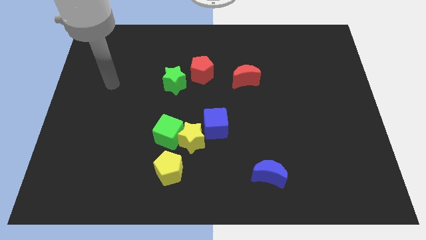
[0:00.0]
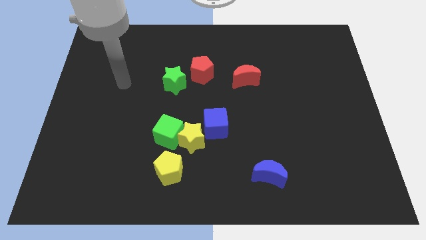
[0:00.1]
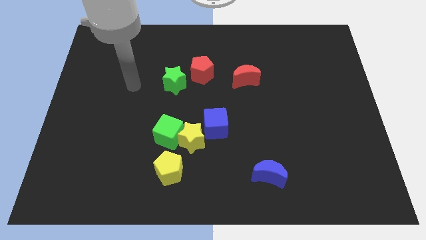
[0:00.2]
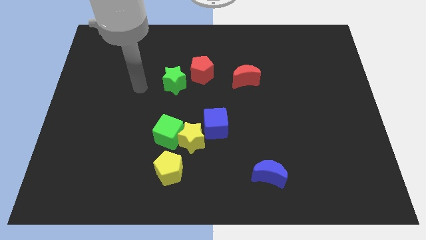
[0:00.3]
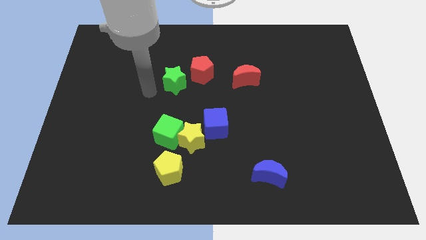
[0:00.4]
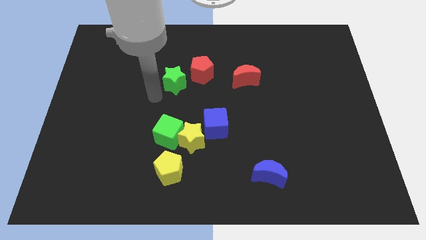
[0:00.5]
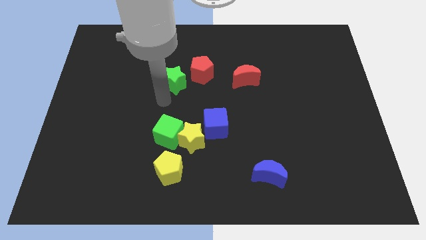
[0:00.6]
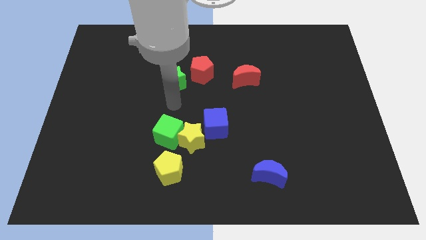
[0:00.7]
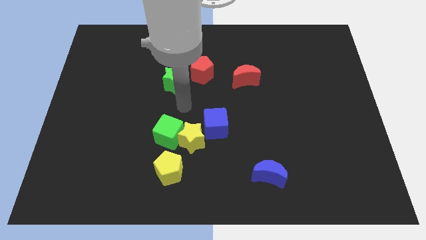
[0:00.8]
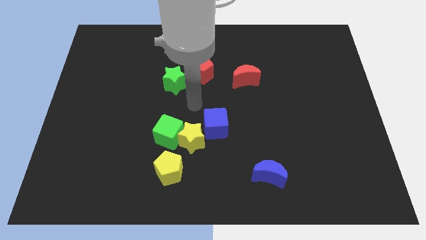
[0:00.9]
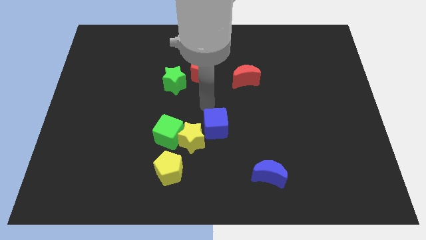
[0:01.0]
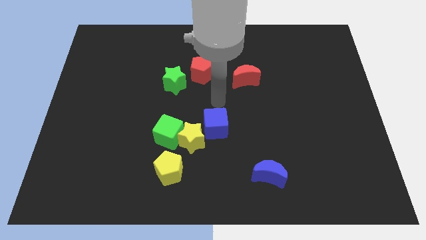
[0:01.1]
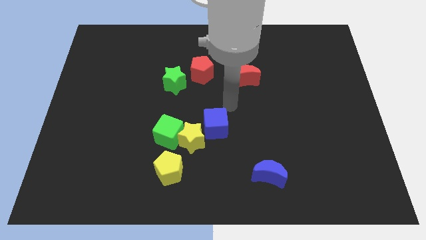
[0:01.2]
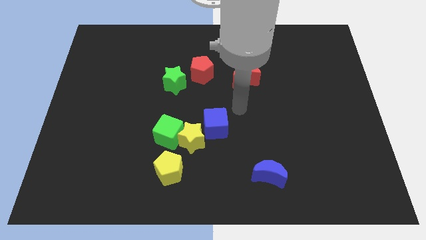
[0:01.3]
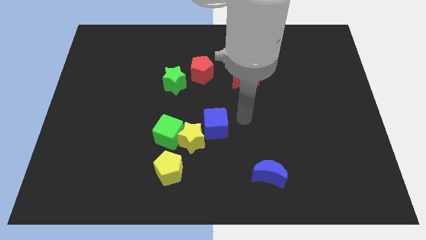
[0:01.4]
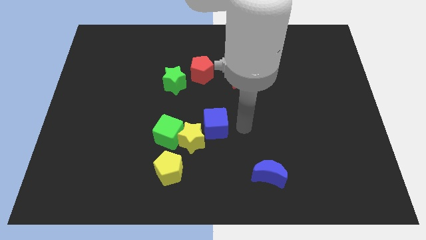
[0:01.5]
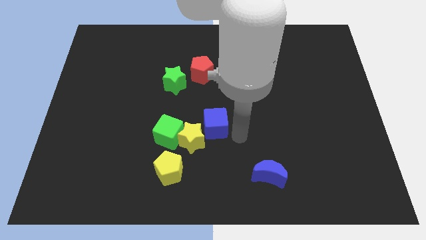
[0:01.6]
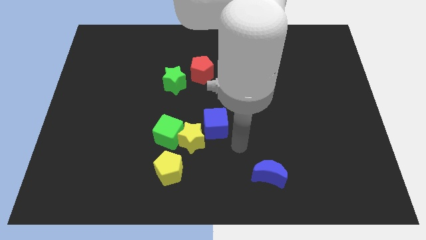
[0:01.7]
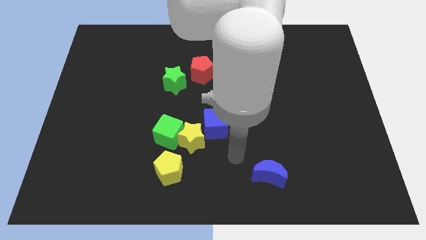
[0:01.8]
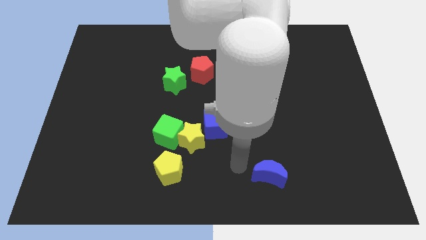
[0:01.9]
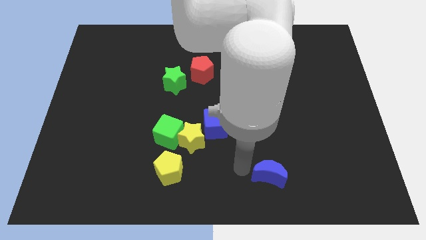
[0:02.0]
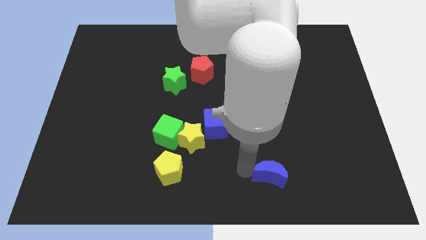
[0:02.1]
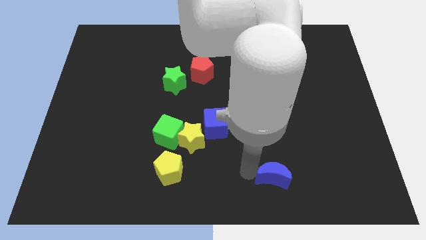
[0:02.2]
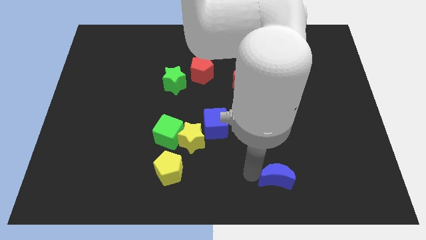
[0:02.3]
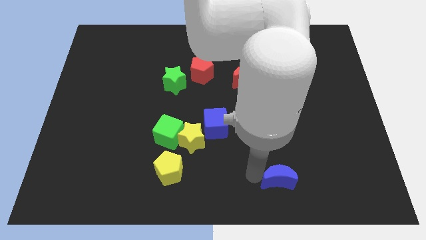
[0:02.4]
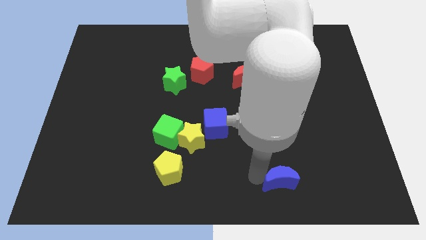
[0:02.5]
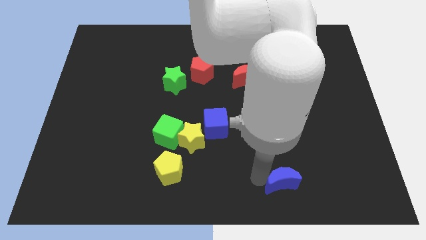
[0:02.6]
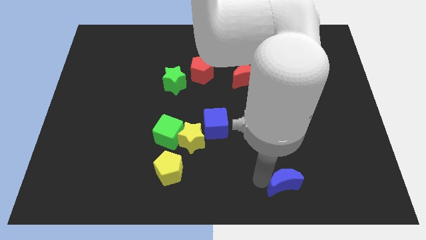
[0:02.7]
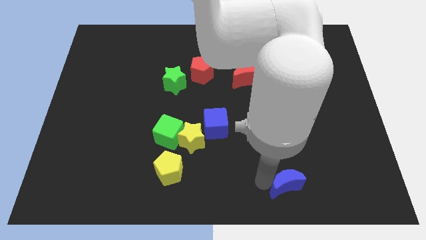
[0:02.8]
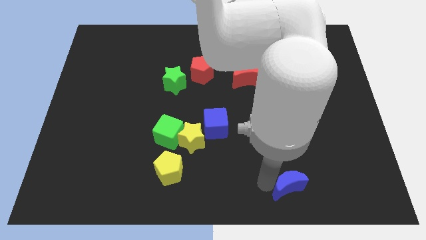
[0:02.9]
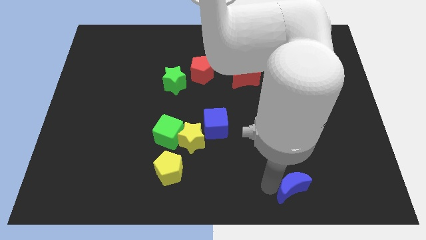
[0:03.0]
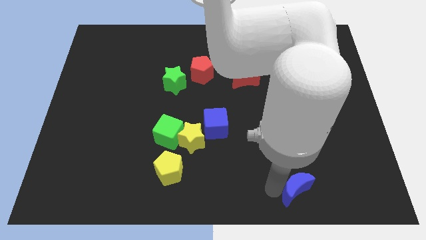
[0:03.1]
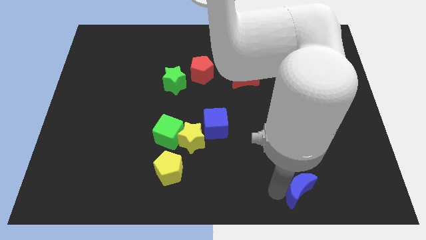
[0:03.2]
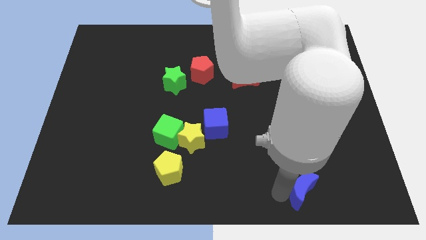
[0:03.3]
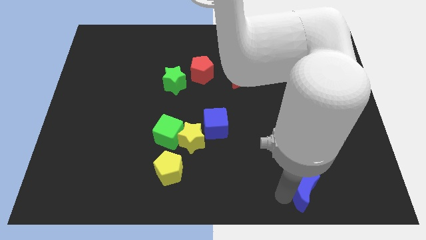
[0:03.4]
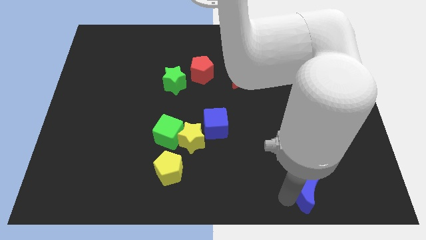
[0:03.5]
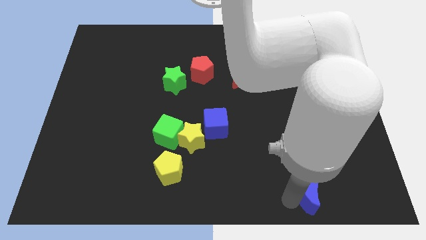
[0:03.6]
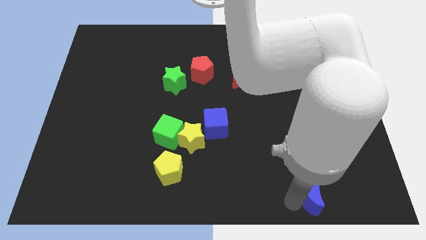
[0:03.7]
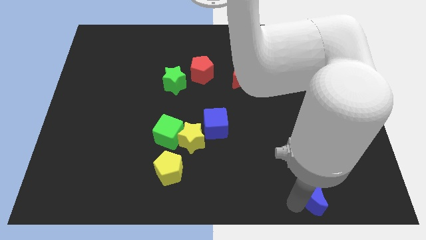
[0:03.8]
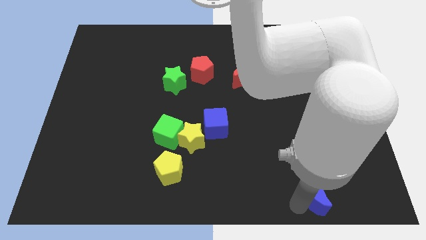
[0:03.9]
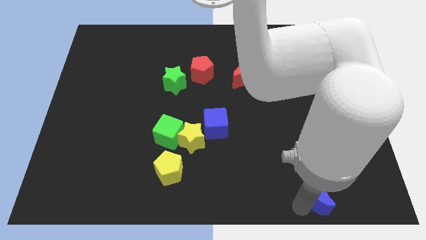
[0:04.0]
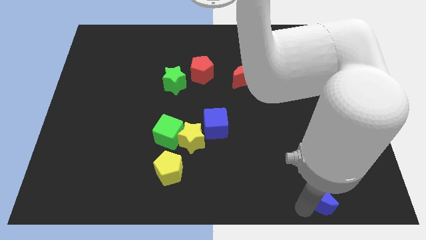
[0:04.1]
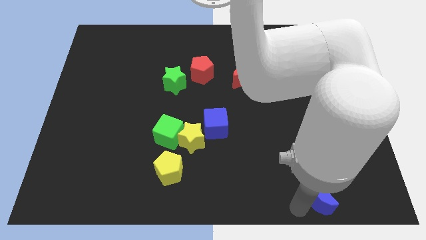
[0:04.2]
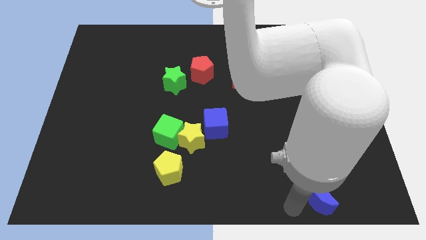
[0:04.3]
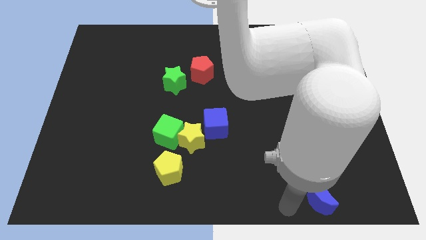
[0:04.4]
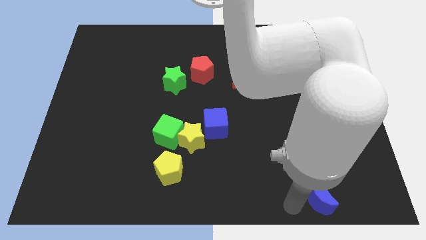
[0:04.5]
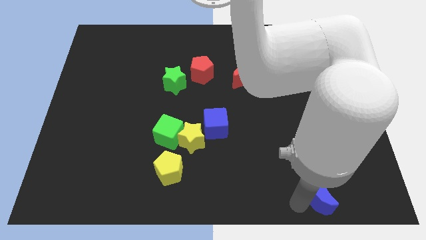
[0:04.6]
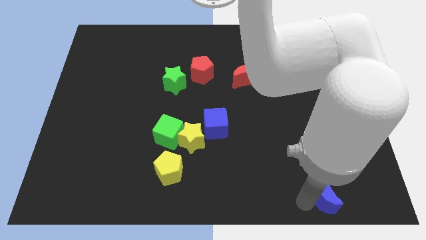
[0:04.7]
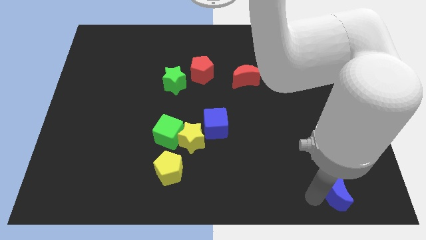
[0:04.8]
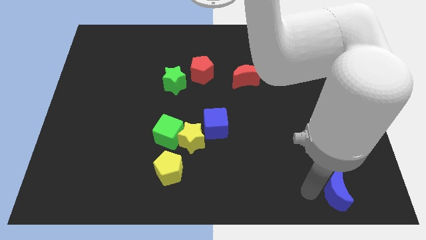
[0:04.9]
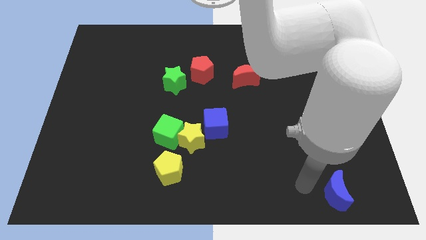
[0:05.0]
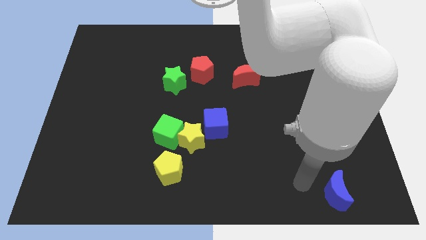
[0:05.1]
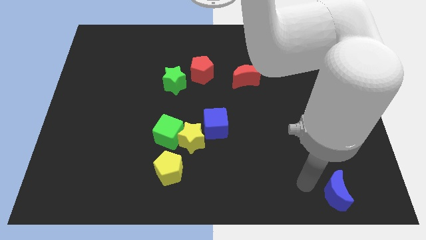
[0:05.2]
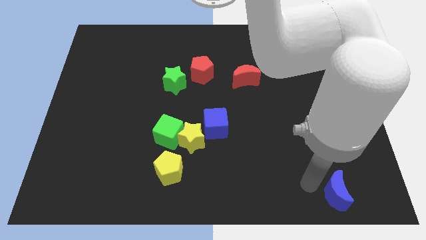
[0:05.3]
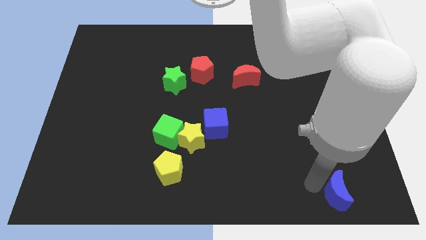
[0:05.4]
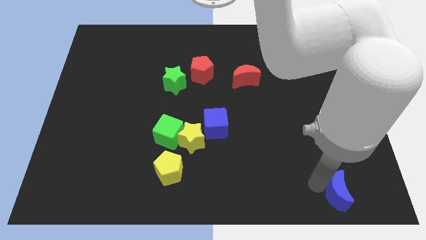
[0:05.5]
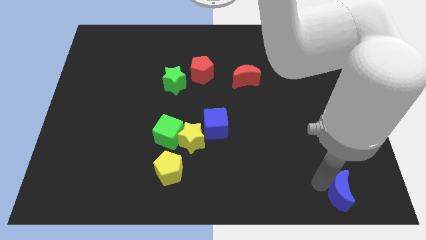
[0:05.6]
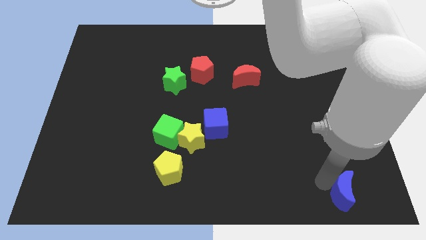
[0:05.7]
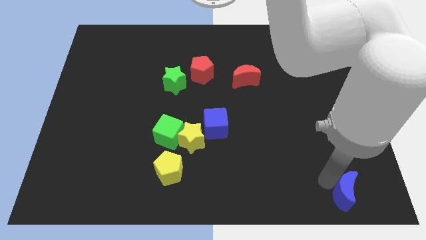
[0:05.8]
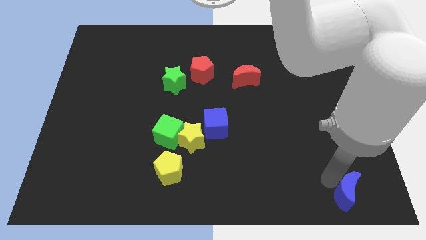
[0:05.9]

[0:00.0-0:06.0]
put the blue moon to the bottom right corner
